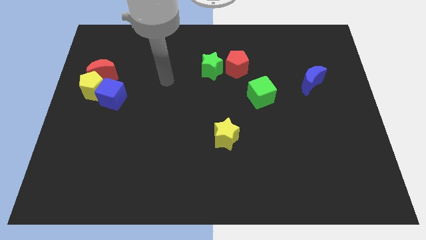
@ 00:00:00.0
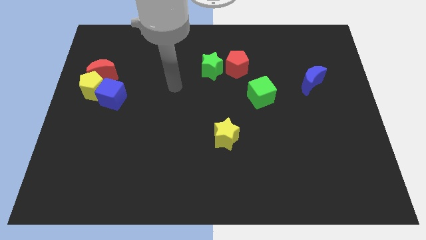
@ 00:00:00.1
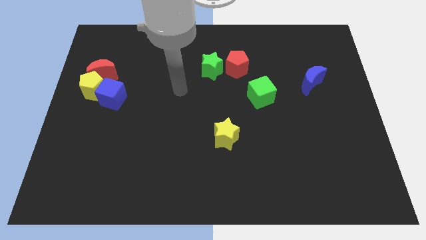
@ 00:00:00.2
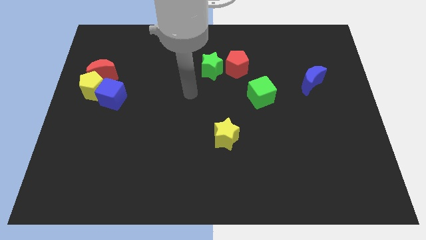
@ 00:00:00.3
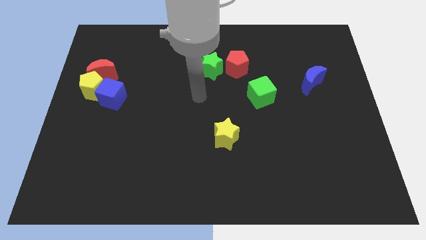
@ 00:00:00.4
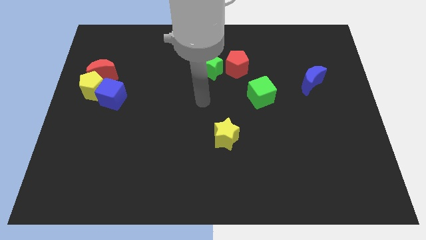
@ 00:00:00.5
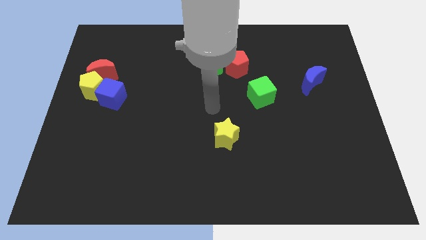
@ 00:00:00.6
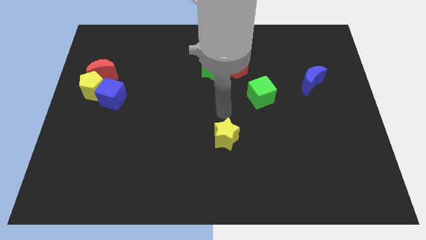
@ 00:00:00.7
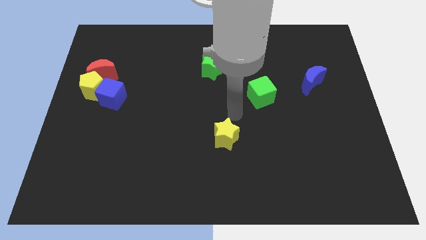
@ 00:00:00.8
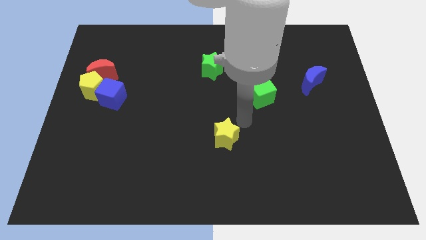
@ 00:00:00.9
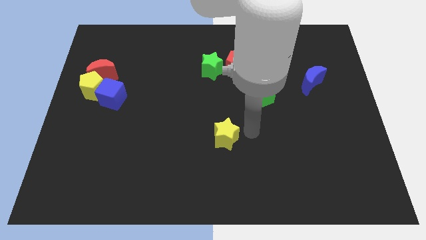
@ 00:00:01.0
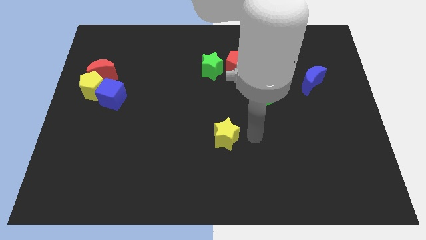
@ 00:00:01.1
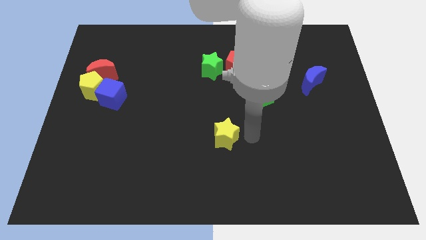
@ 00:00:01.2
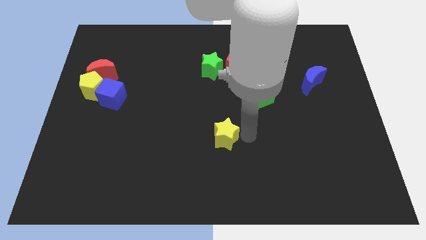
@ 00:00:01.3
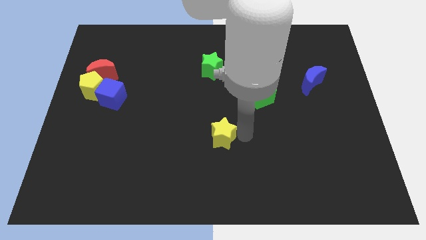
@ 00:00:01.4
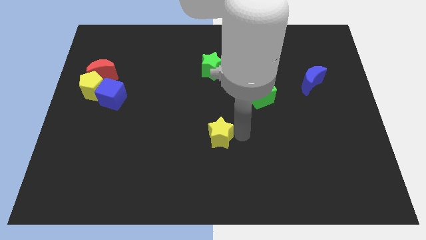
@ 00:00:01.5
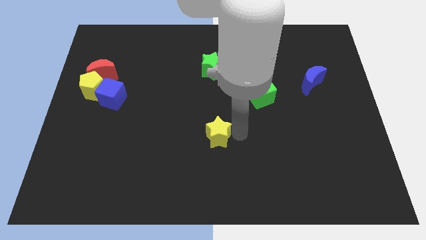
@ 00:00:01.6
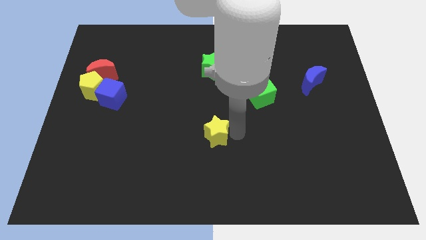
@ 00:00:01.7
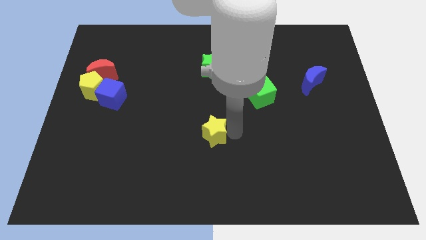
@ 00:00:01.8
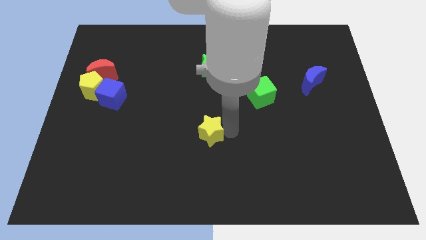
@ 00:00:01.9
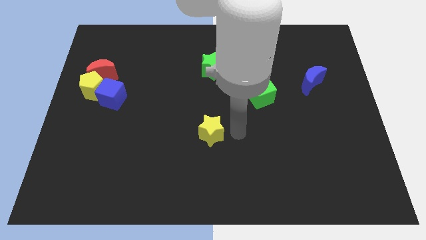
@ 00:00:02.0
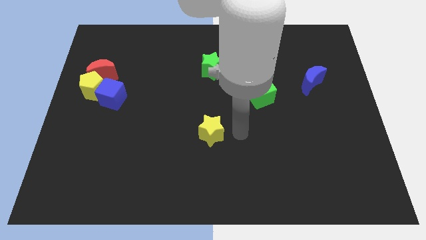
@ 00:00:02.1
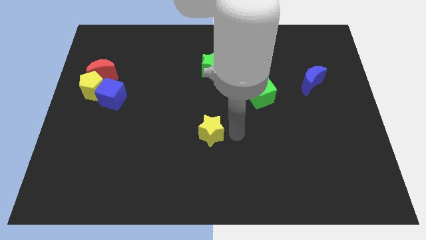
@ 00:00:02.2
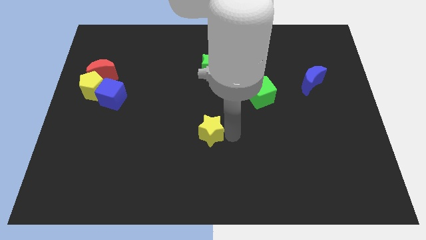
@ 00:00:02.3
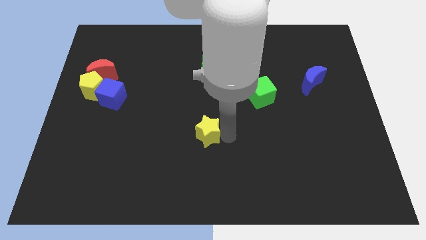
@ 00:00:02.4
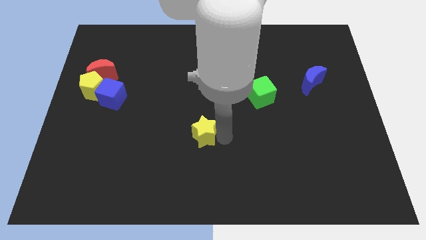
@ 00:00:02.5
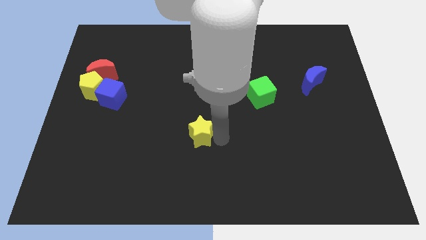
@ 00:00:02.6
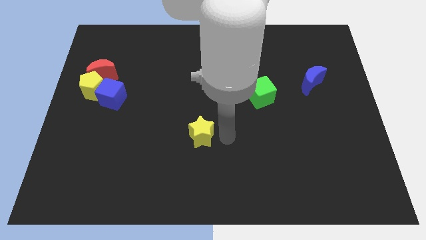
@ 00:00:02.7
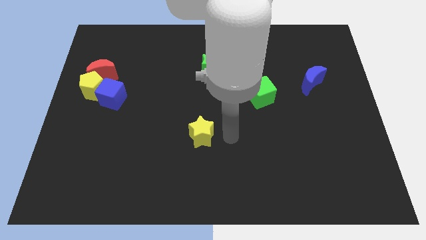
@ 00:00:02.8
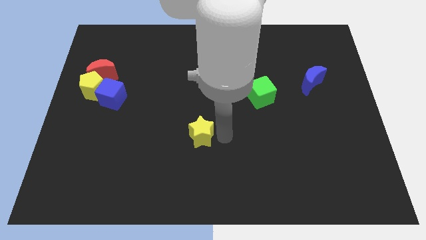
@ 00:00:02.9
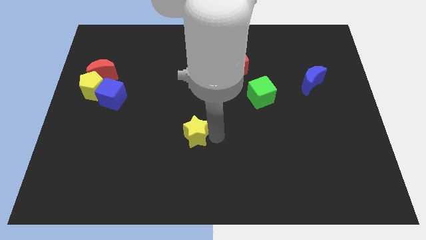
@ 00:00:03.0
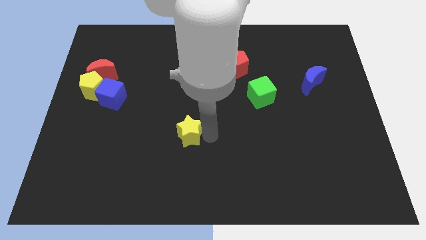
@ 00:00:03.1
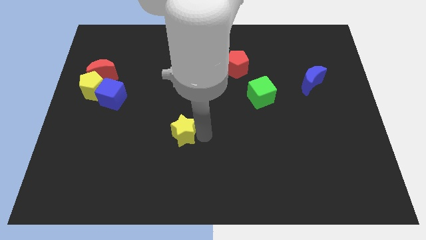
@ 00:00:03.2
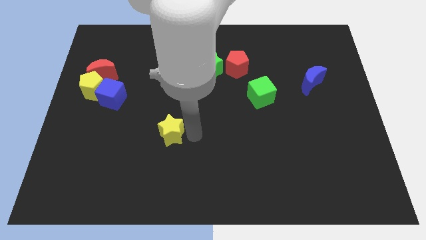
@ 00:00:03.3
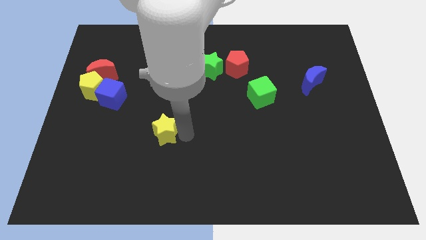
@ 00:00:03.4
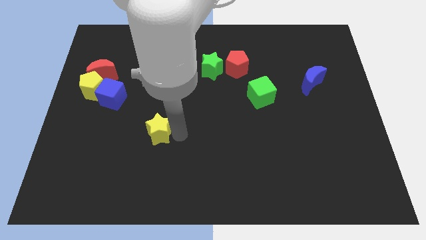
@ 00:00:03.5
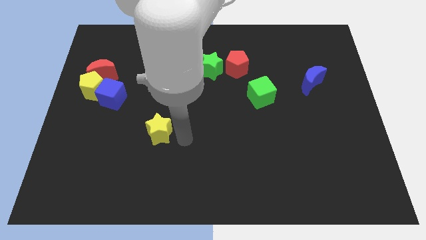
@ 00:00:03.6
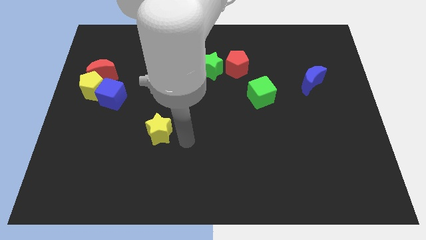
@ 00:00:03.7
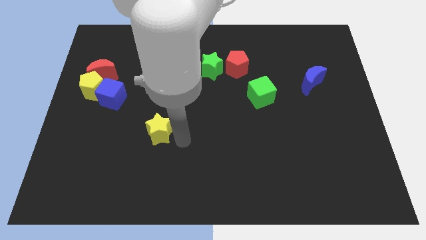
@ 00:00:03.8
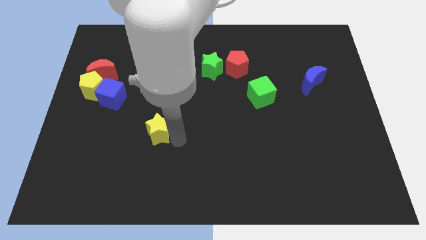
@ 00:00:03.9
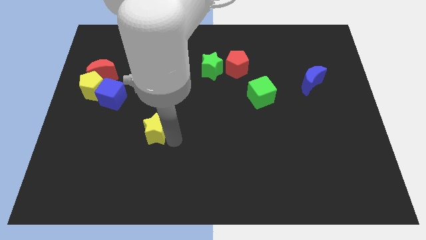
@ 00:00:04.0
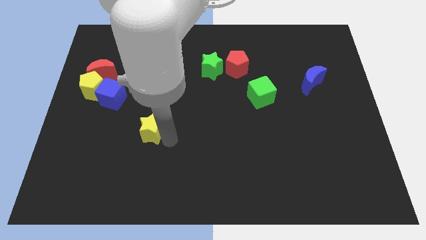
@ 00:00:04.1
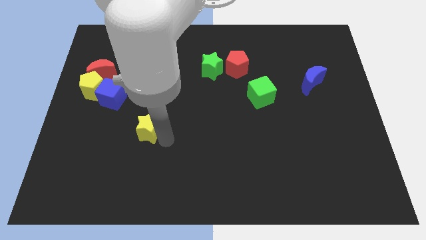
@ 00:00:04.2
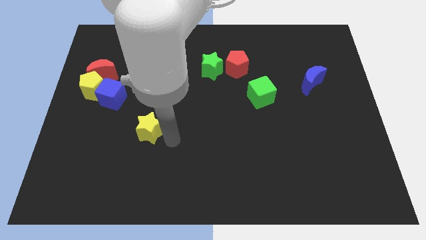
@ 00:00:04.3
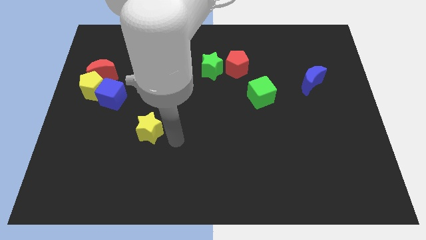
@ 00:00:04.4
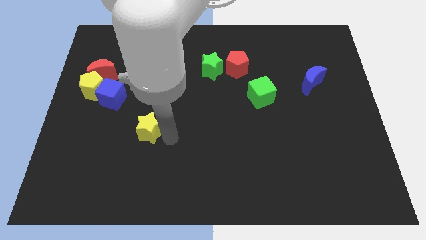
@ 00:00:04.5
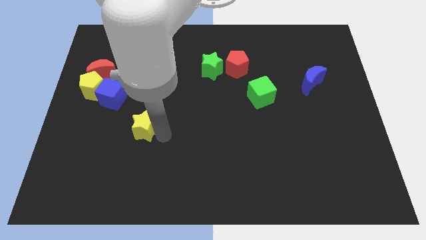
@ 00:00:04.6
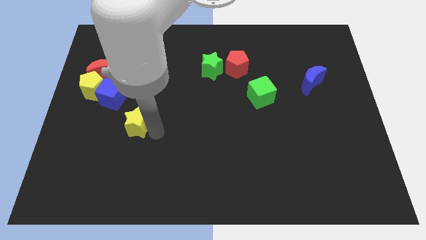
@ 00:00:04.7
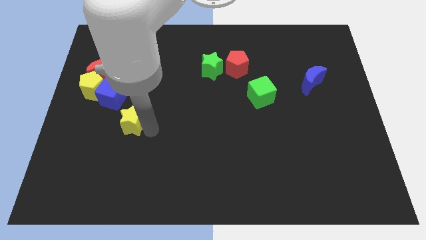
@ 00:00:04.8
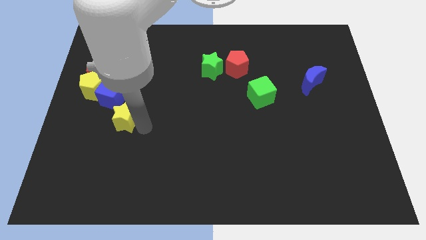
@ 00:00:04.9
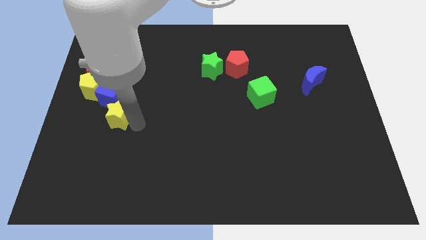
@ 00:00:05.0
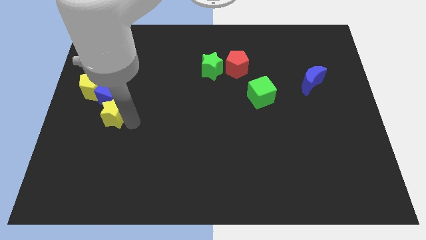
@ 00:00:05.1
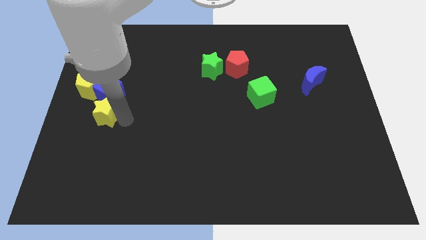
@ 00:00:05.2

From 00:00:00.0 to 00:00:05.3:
slide the yellow star to the bottom side of the red moon

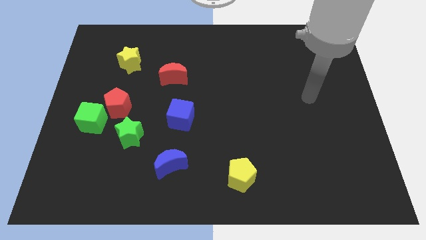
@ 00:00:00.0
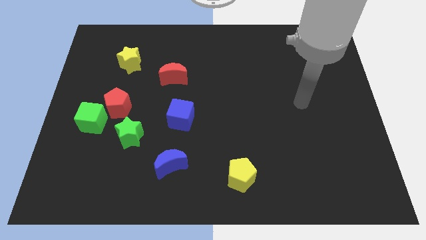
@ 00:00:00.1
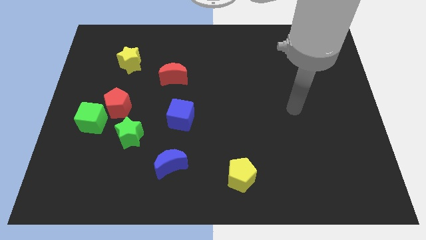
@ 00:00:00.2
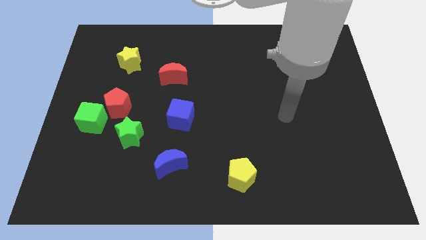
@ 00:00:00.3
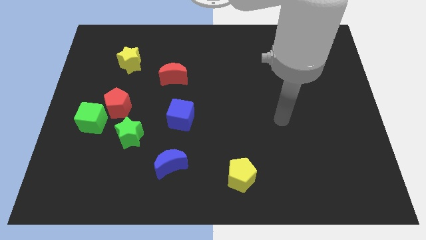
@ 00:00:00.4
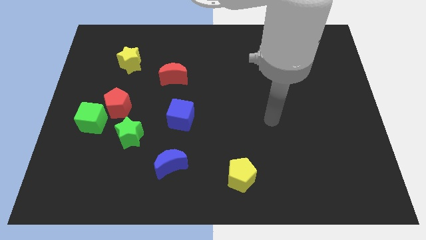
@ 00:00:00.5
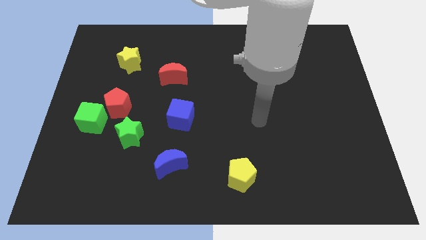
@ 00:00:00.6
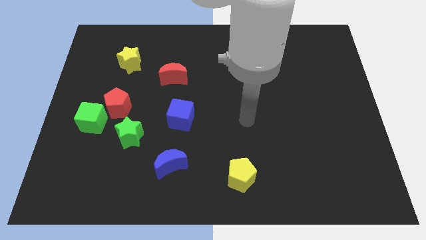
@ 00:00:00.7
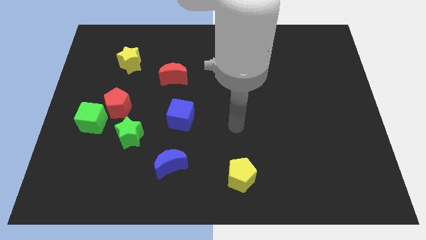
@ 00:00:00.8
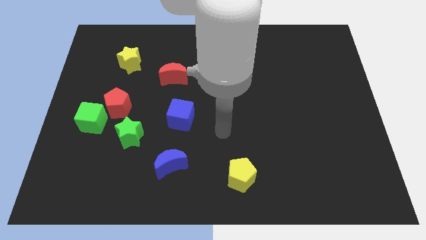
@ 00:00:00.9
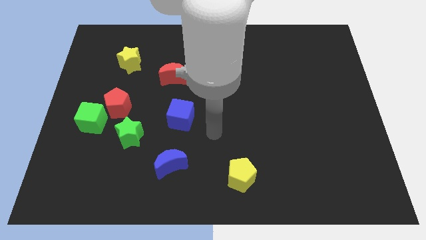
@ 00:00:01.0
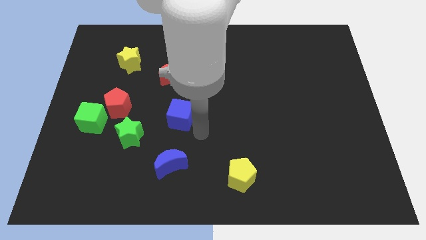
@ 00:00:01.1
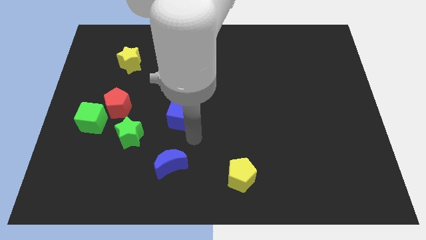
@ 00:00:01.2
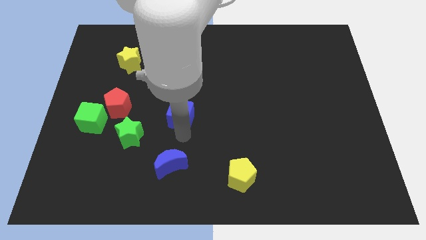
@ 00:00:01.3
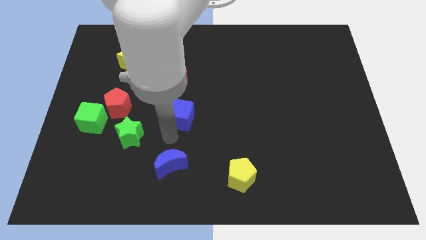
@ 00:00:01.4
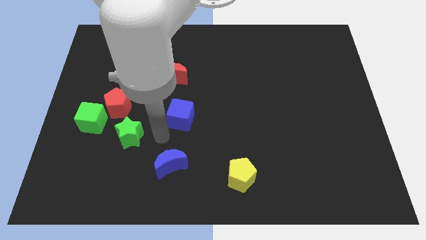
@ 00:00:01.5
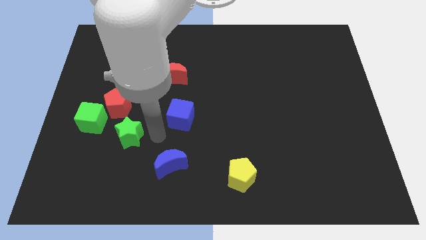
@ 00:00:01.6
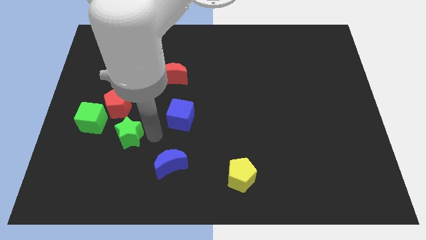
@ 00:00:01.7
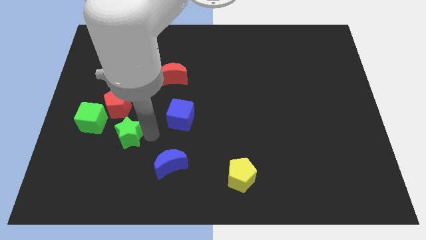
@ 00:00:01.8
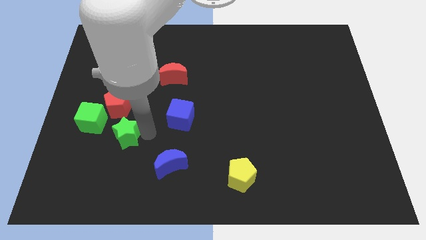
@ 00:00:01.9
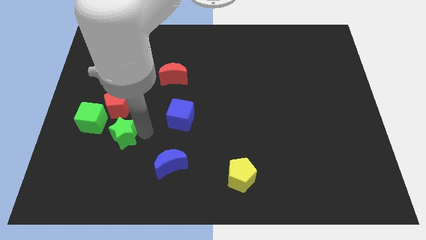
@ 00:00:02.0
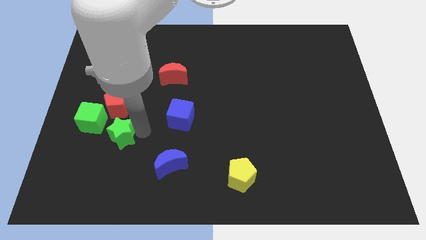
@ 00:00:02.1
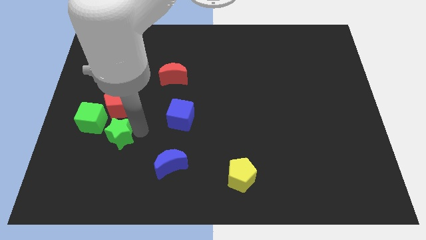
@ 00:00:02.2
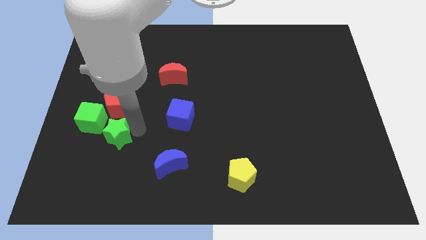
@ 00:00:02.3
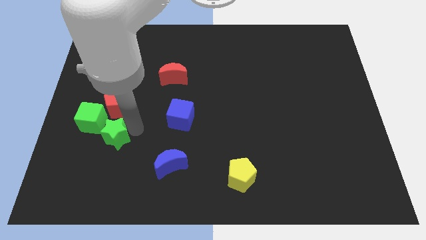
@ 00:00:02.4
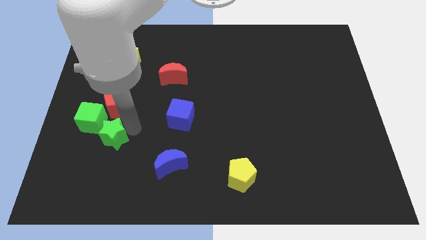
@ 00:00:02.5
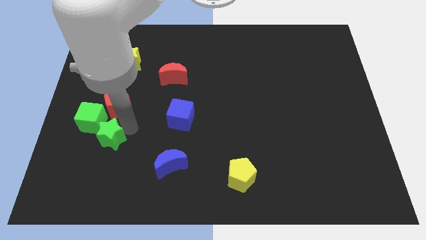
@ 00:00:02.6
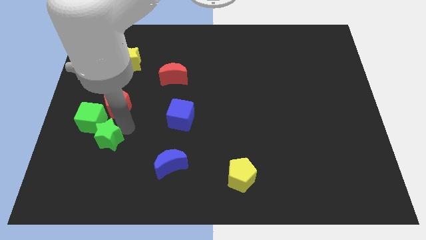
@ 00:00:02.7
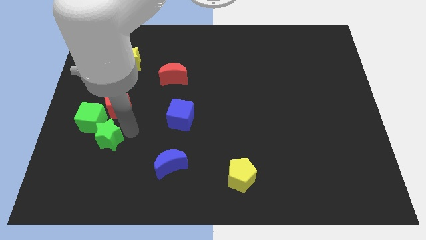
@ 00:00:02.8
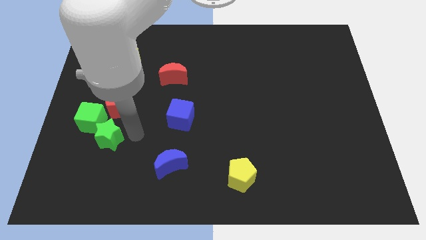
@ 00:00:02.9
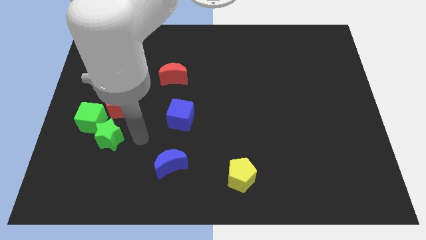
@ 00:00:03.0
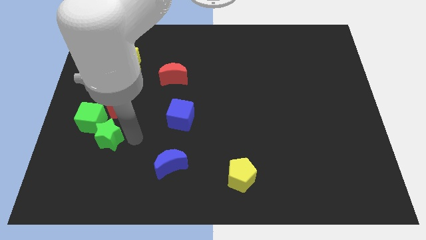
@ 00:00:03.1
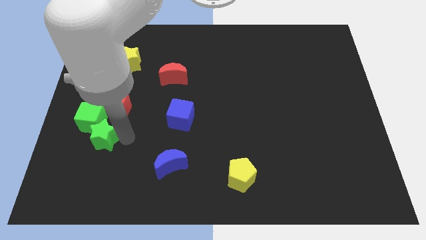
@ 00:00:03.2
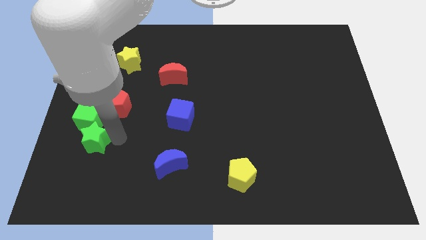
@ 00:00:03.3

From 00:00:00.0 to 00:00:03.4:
move the green star diagonally down and to the left of the red pentagon
